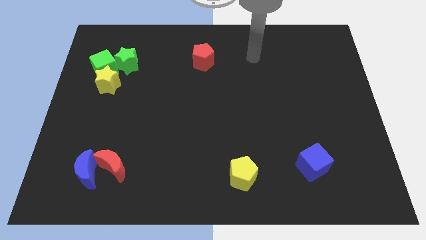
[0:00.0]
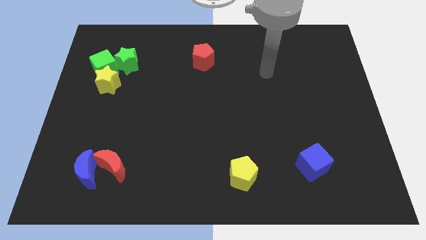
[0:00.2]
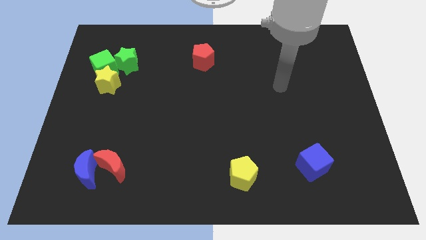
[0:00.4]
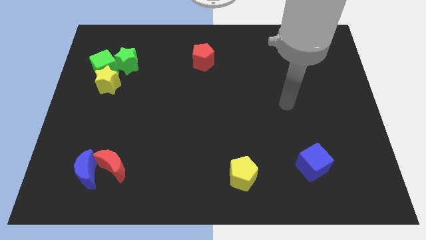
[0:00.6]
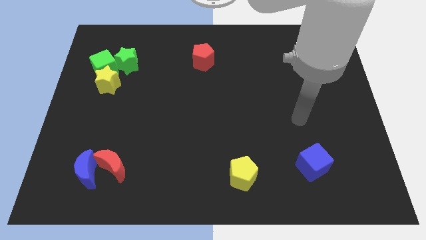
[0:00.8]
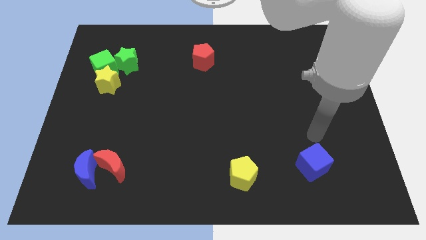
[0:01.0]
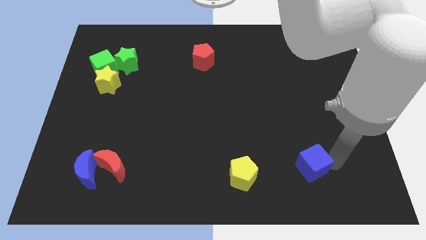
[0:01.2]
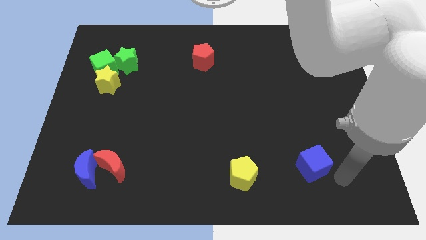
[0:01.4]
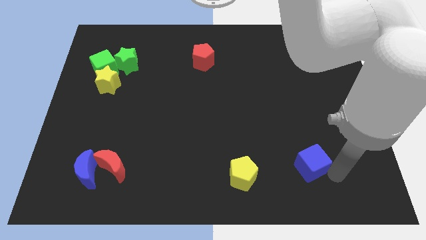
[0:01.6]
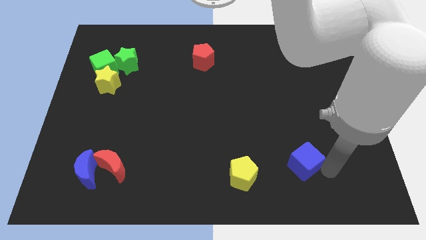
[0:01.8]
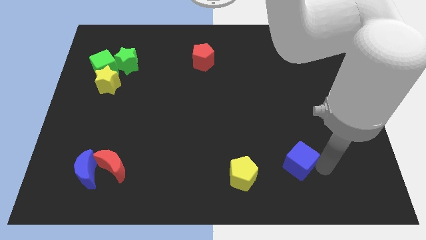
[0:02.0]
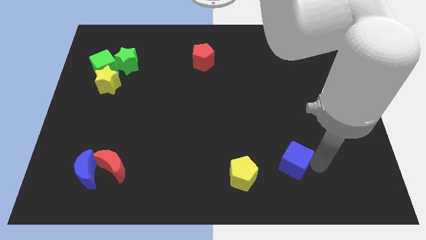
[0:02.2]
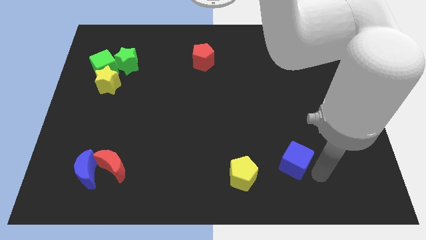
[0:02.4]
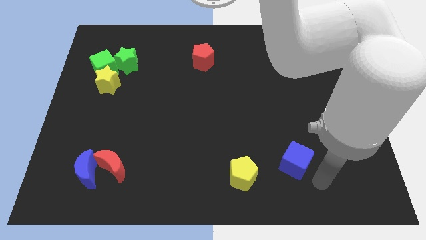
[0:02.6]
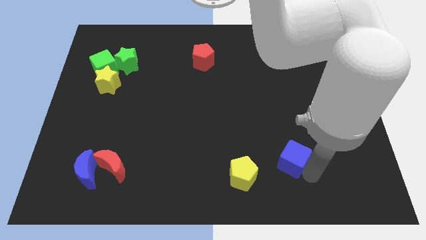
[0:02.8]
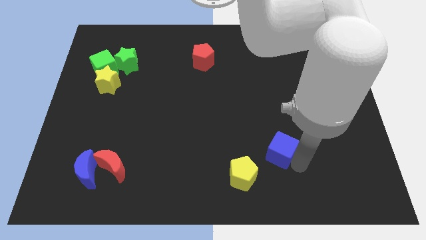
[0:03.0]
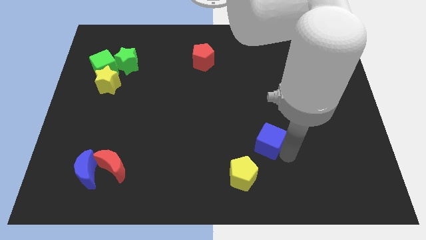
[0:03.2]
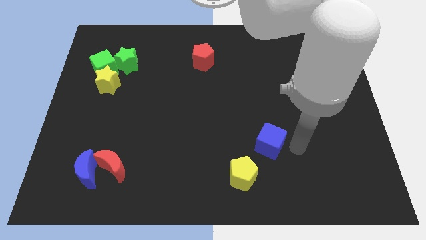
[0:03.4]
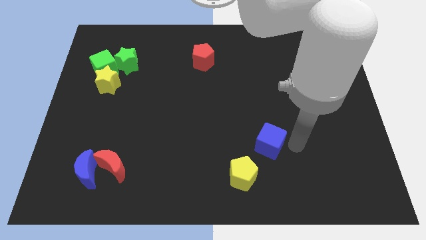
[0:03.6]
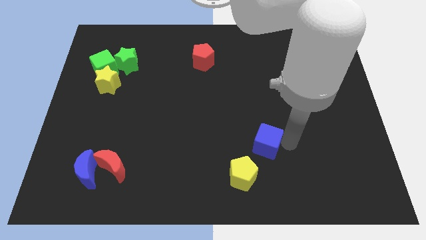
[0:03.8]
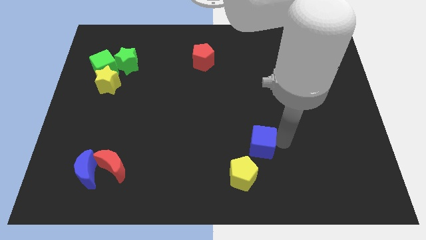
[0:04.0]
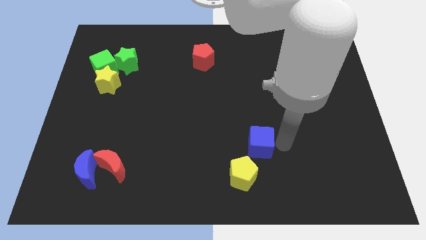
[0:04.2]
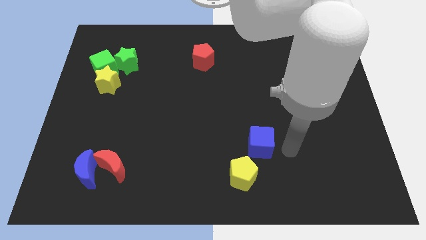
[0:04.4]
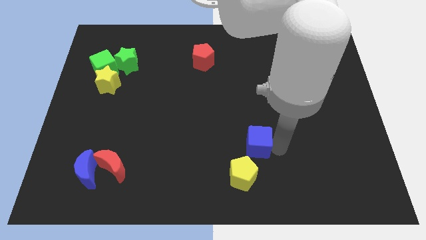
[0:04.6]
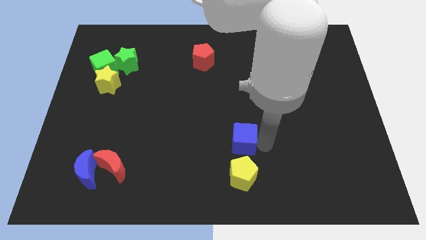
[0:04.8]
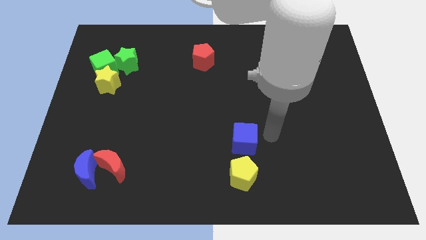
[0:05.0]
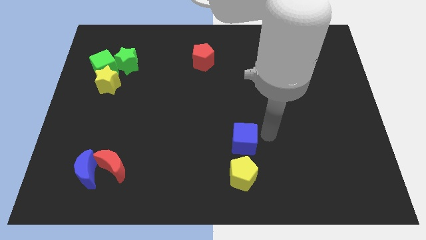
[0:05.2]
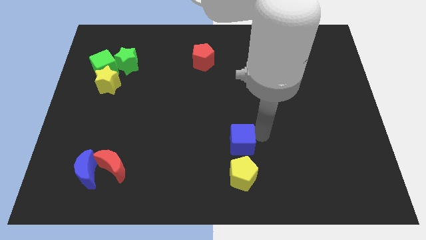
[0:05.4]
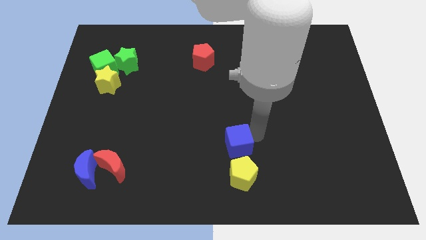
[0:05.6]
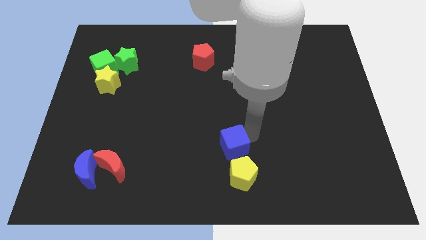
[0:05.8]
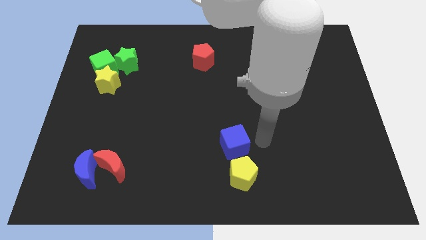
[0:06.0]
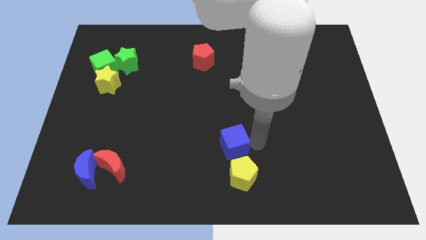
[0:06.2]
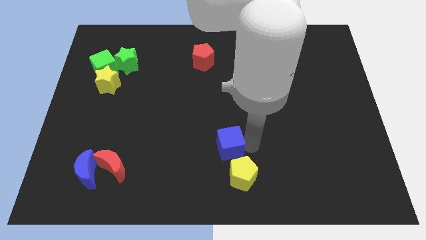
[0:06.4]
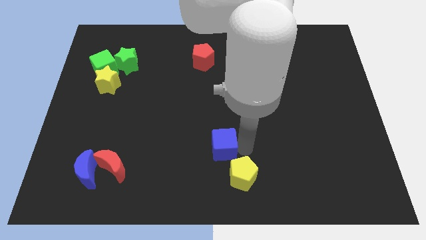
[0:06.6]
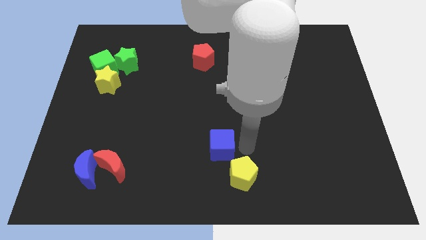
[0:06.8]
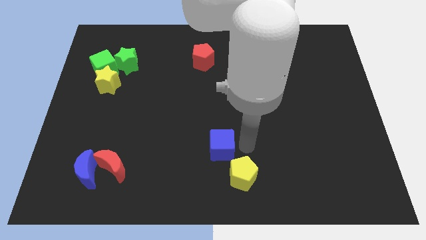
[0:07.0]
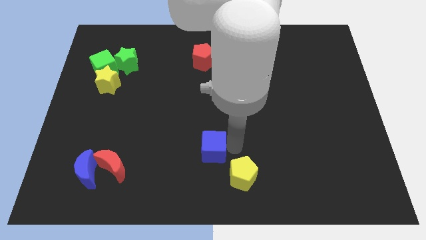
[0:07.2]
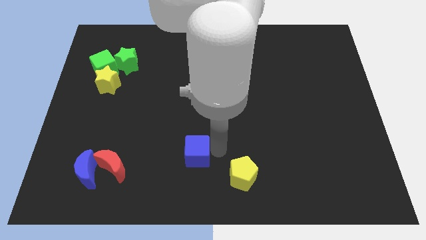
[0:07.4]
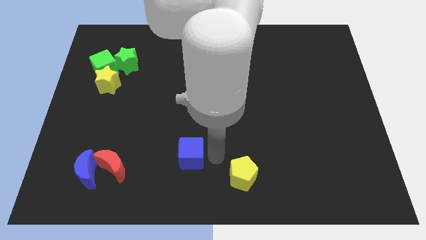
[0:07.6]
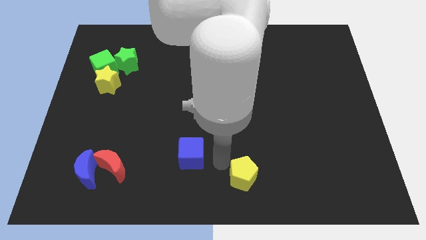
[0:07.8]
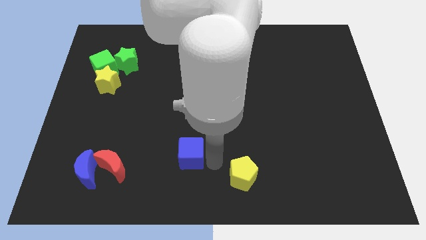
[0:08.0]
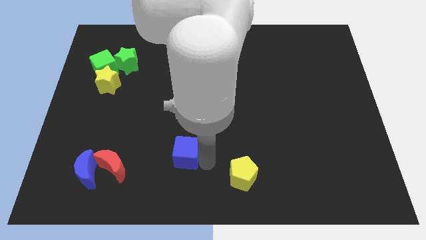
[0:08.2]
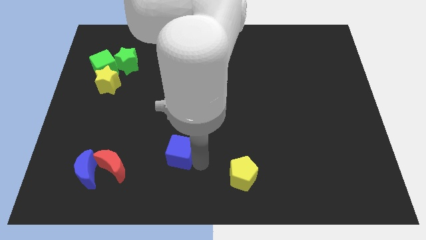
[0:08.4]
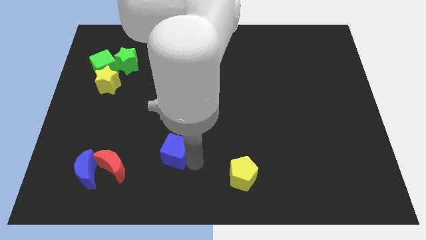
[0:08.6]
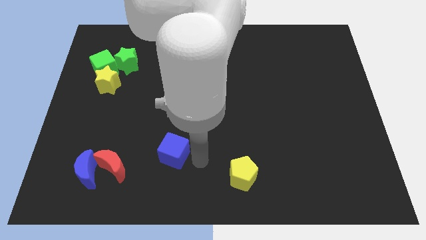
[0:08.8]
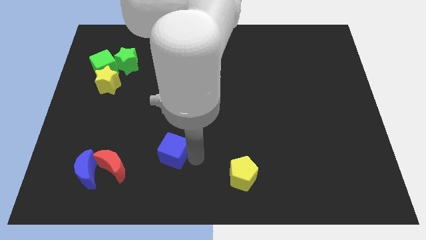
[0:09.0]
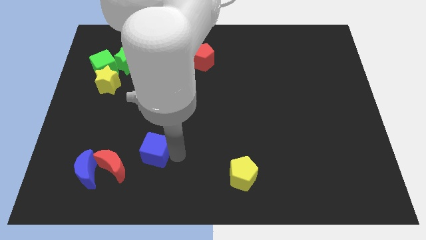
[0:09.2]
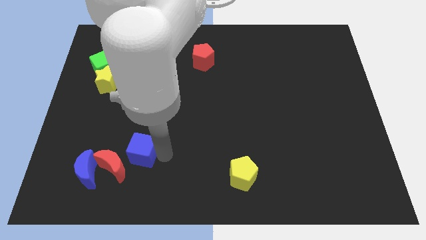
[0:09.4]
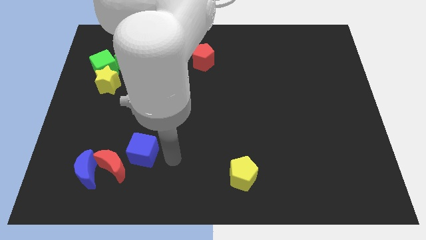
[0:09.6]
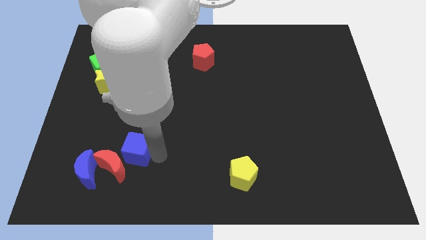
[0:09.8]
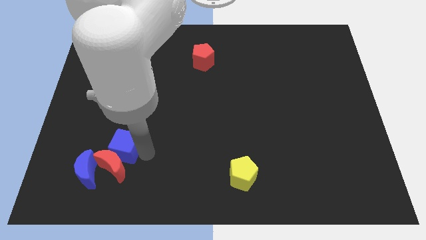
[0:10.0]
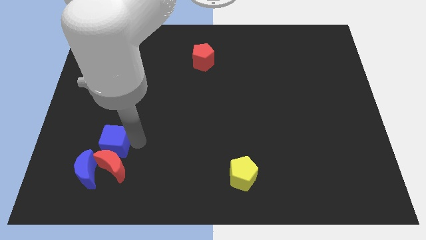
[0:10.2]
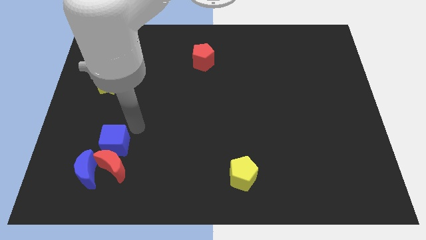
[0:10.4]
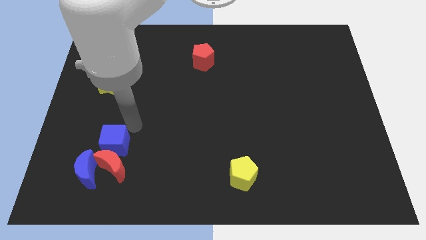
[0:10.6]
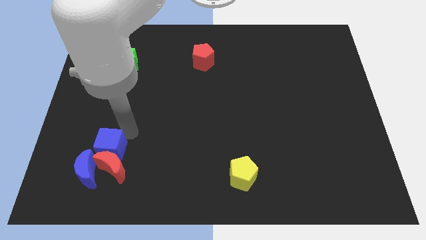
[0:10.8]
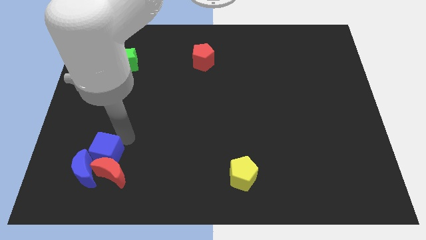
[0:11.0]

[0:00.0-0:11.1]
push the blue cube towards the blue moon

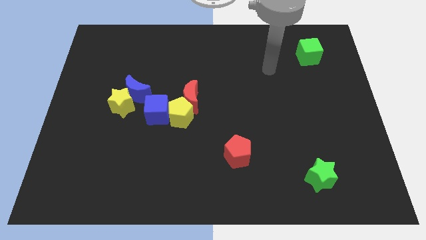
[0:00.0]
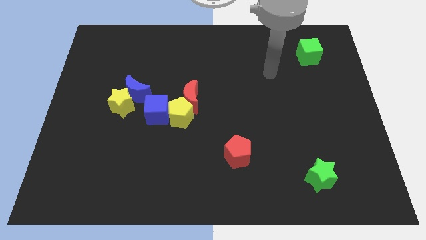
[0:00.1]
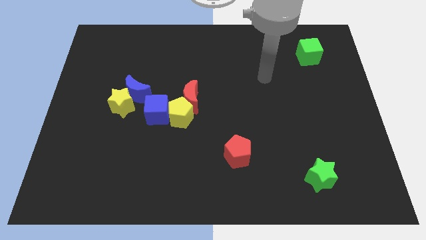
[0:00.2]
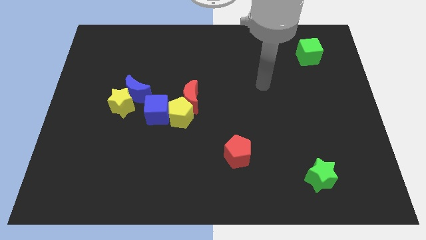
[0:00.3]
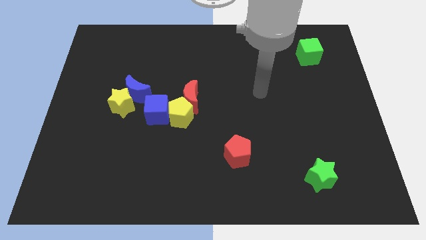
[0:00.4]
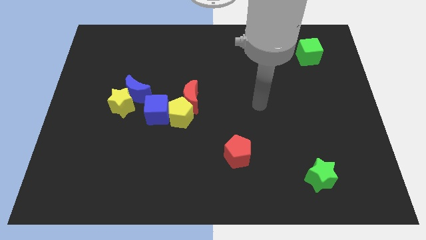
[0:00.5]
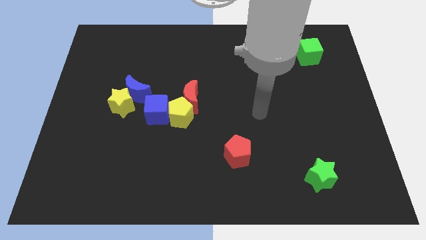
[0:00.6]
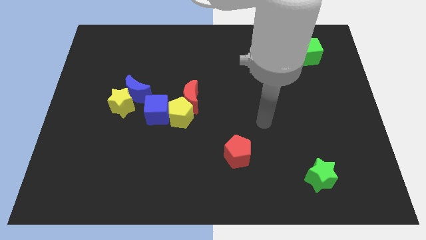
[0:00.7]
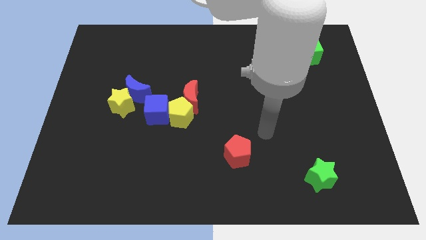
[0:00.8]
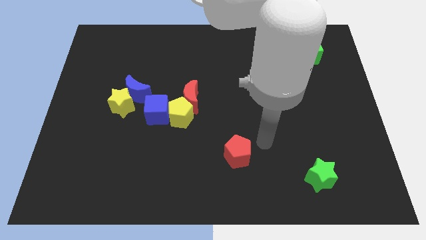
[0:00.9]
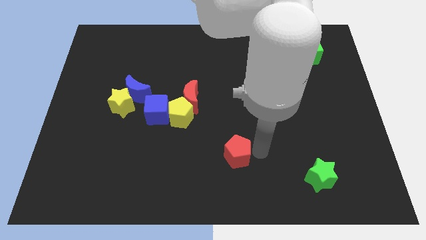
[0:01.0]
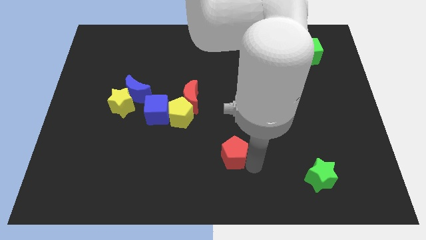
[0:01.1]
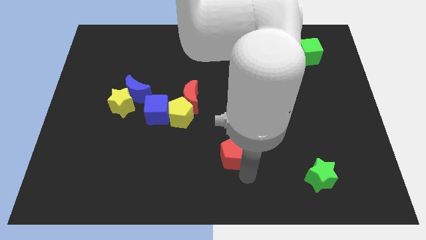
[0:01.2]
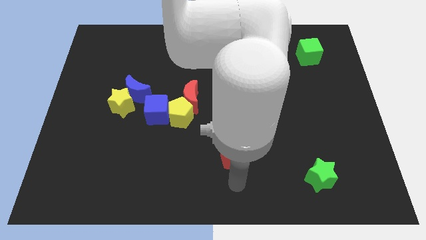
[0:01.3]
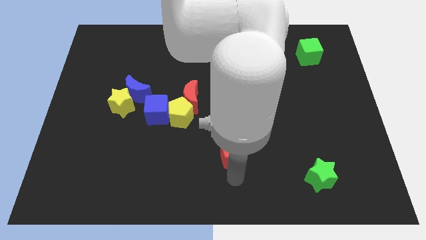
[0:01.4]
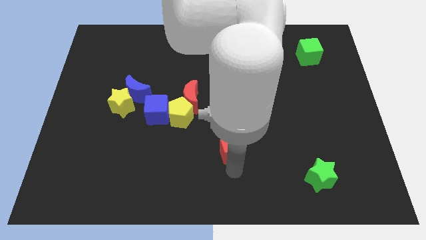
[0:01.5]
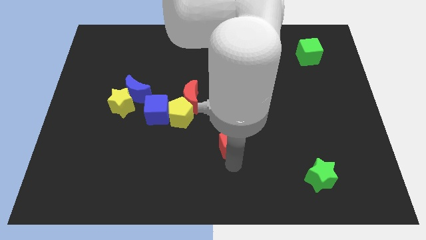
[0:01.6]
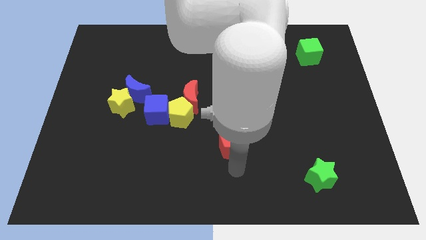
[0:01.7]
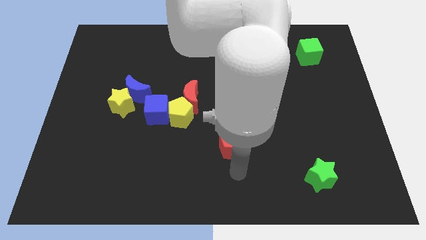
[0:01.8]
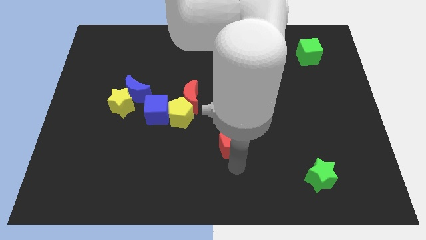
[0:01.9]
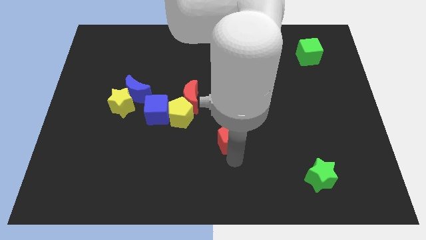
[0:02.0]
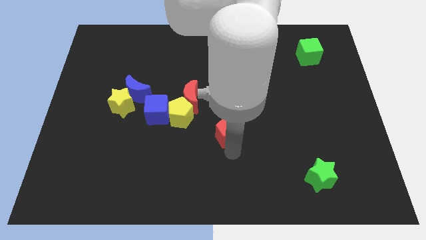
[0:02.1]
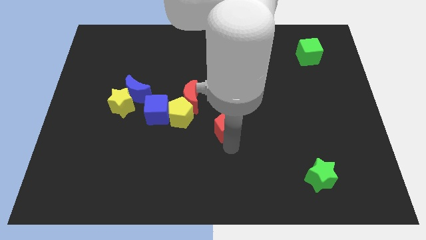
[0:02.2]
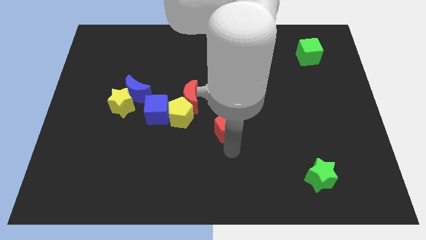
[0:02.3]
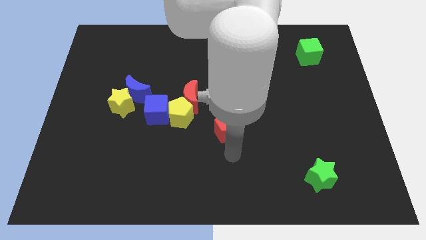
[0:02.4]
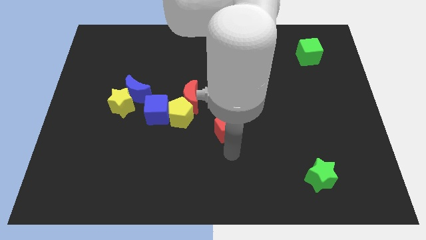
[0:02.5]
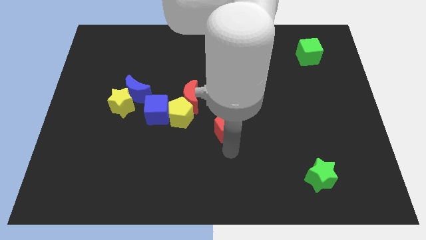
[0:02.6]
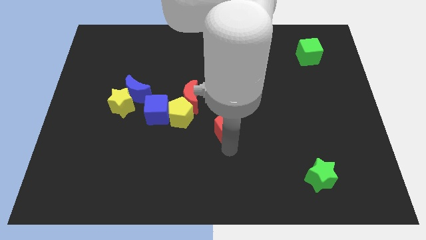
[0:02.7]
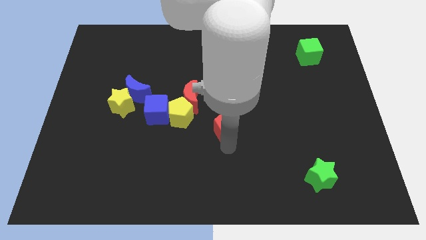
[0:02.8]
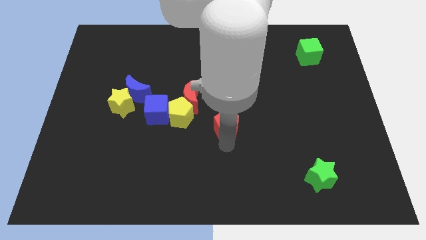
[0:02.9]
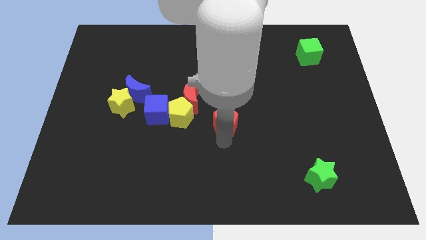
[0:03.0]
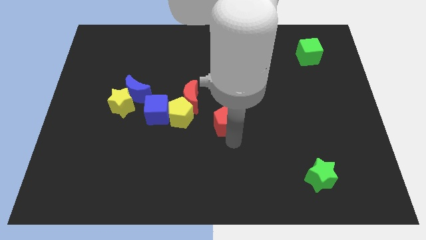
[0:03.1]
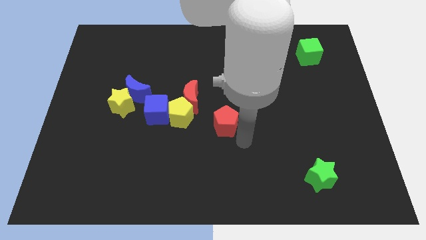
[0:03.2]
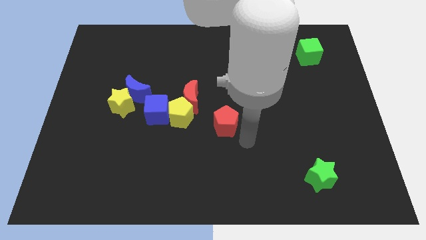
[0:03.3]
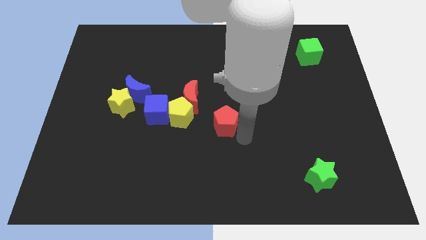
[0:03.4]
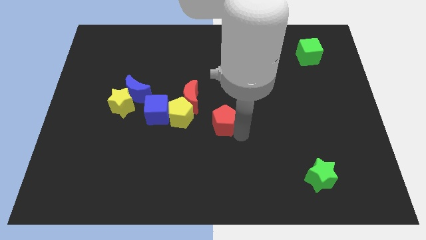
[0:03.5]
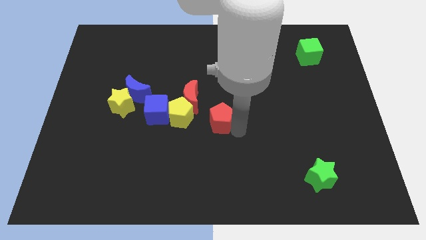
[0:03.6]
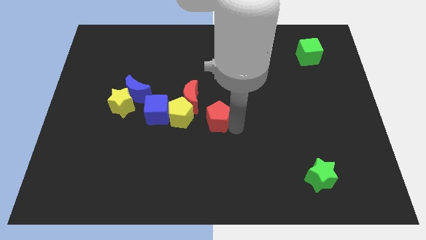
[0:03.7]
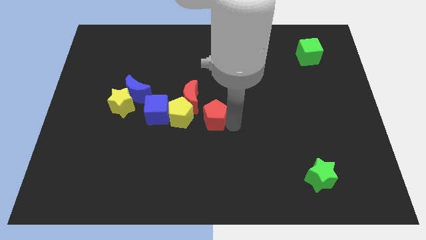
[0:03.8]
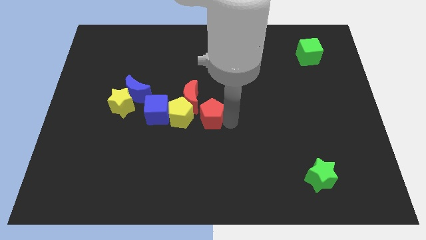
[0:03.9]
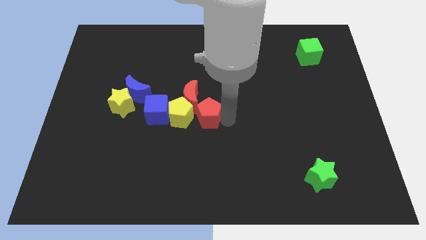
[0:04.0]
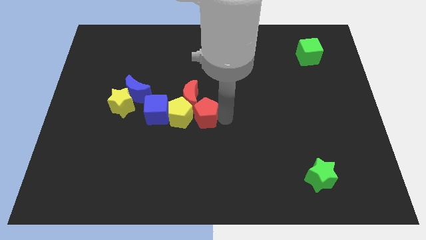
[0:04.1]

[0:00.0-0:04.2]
put the red pentagon close to the red moon
